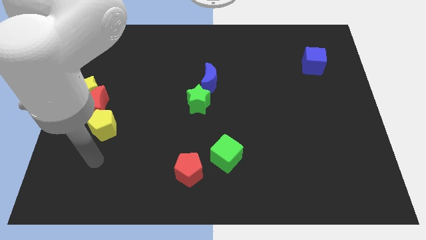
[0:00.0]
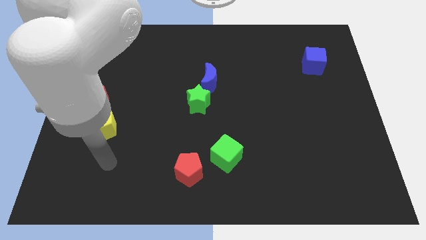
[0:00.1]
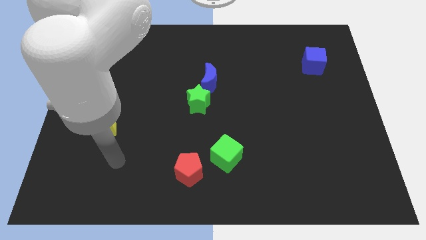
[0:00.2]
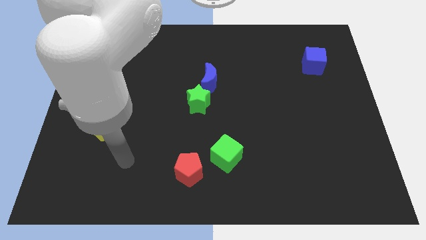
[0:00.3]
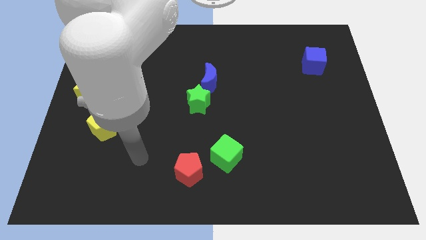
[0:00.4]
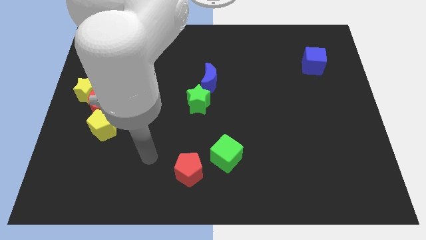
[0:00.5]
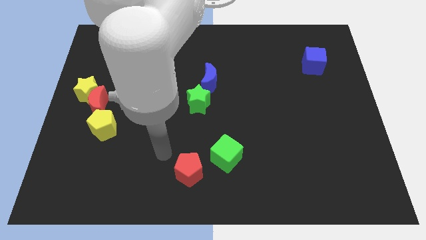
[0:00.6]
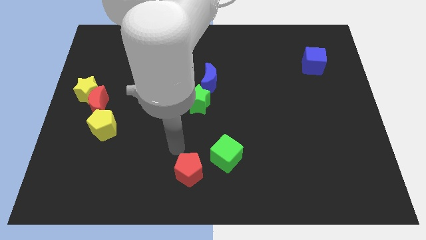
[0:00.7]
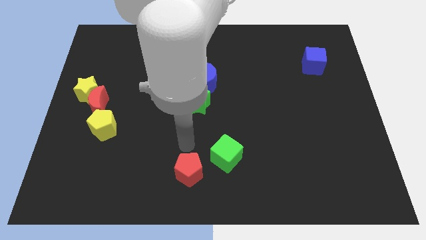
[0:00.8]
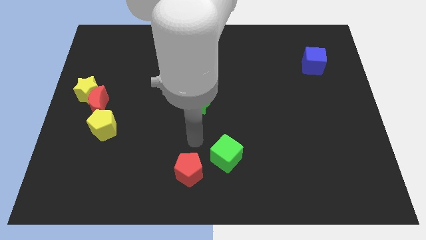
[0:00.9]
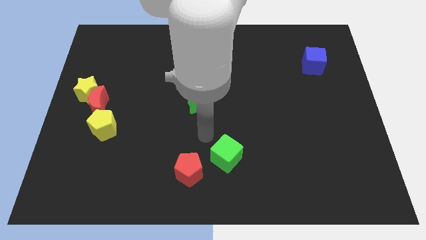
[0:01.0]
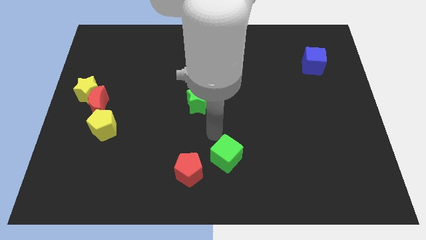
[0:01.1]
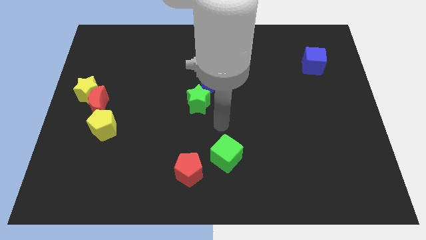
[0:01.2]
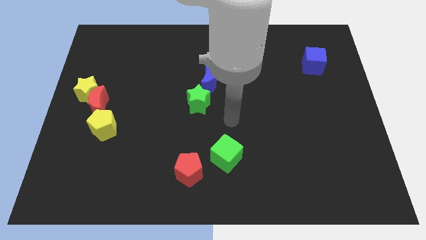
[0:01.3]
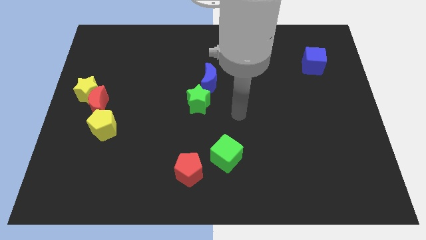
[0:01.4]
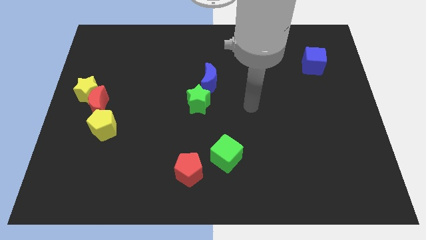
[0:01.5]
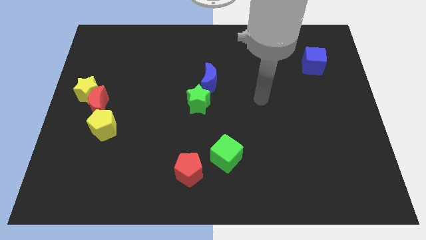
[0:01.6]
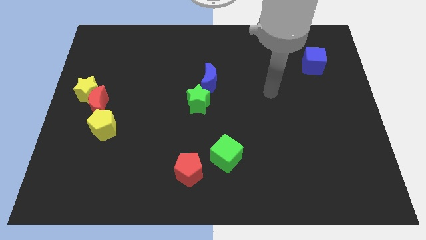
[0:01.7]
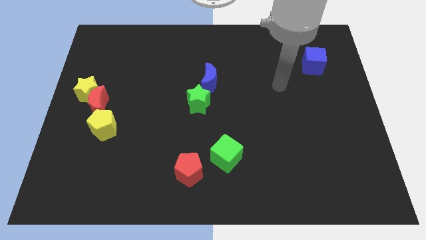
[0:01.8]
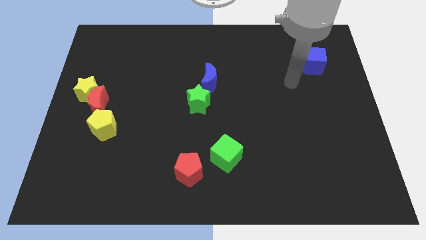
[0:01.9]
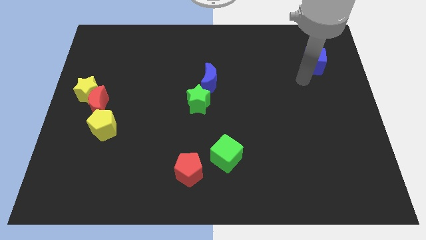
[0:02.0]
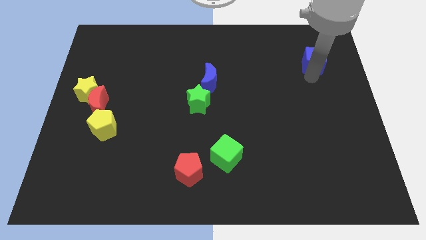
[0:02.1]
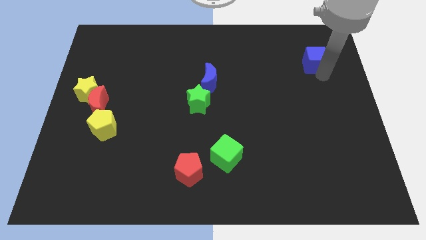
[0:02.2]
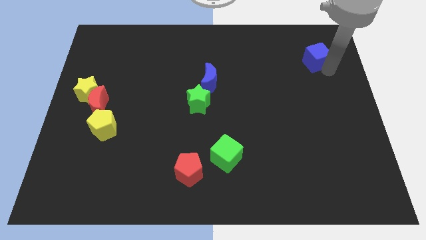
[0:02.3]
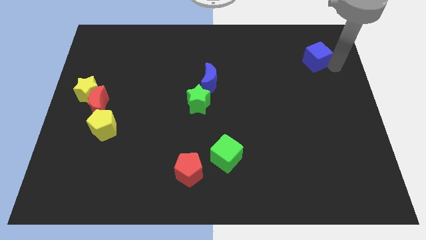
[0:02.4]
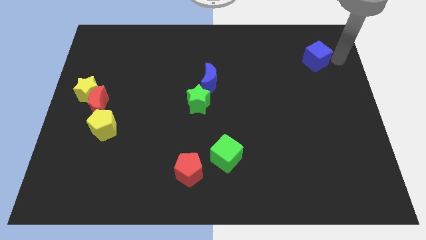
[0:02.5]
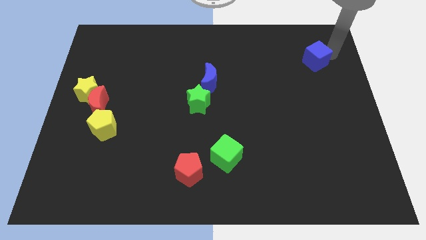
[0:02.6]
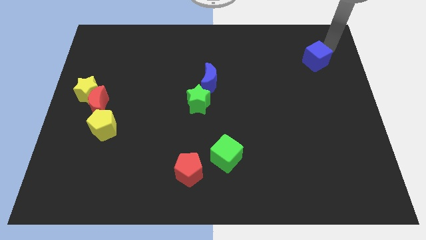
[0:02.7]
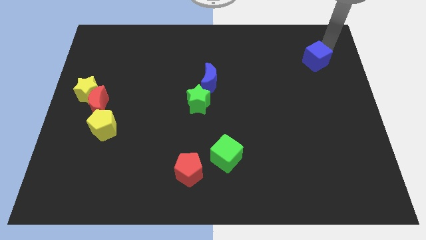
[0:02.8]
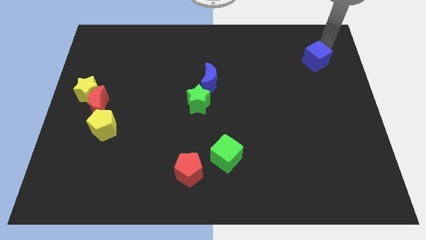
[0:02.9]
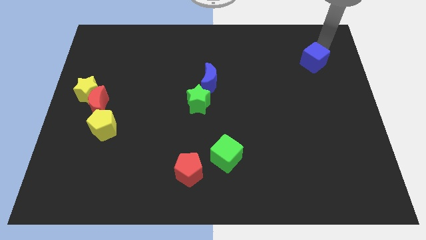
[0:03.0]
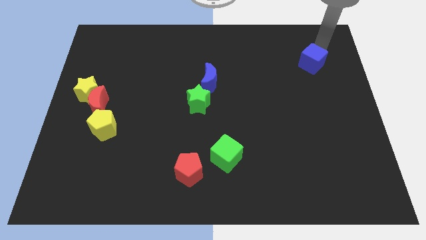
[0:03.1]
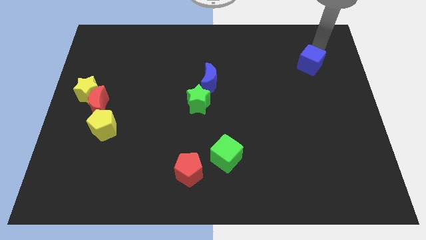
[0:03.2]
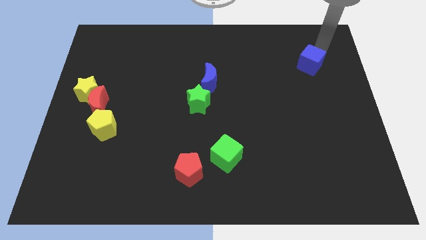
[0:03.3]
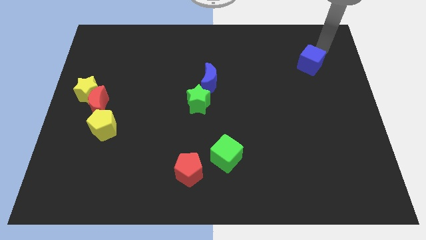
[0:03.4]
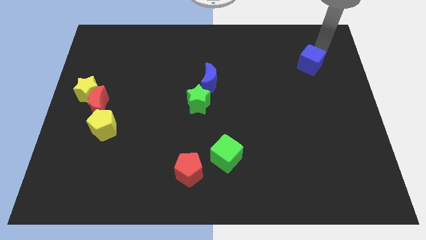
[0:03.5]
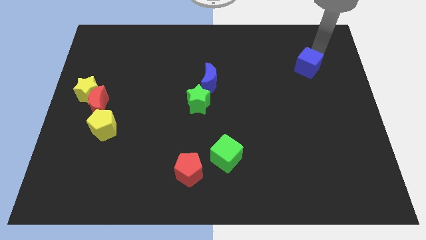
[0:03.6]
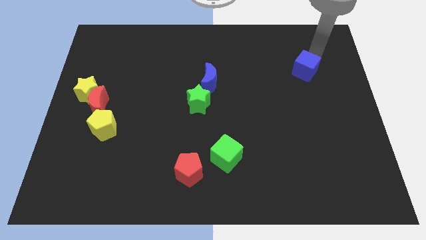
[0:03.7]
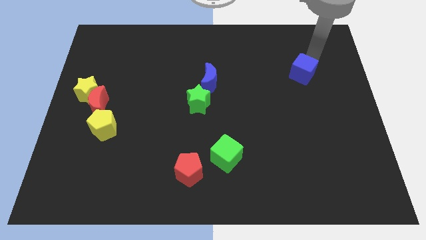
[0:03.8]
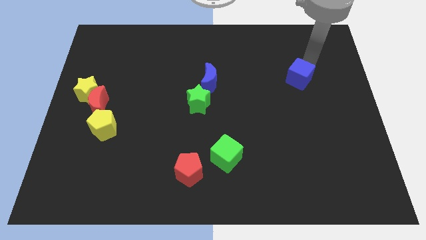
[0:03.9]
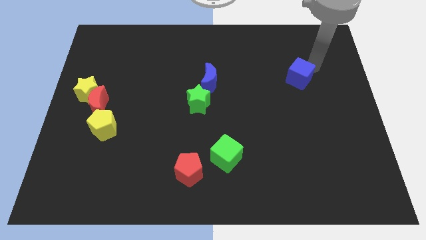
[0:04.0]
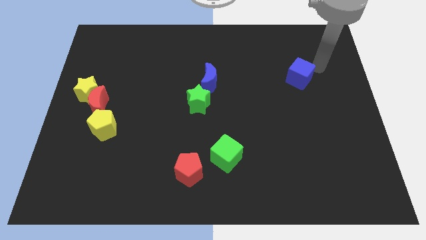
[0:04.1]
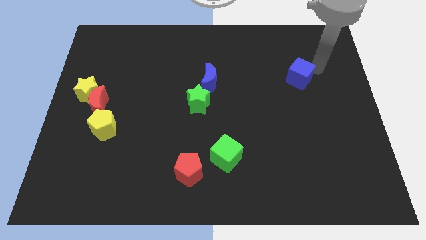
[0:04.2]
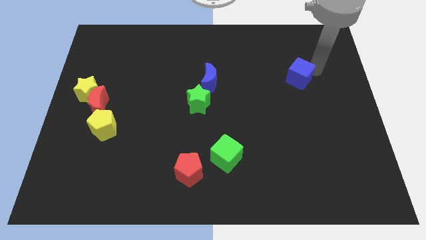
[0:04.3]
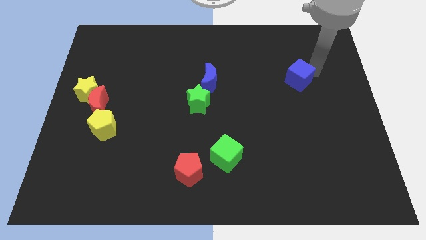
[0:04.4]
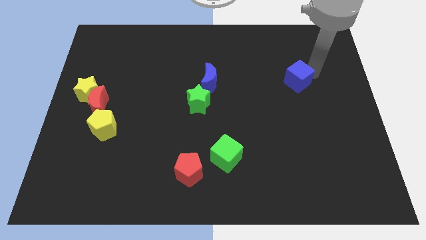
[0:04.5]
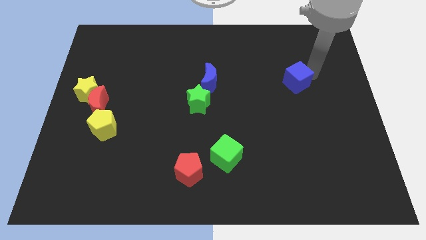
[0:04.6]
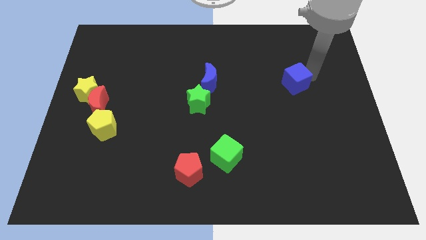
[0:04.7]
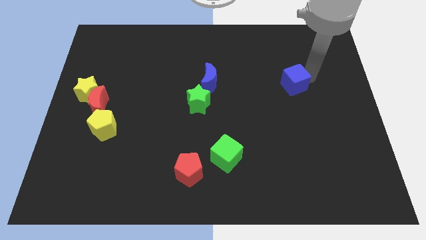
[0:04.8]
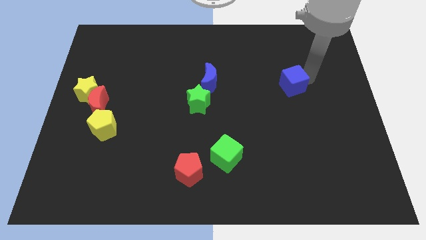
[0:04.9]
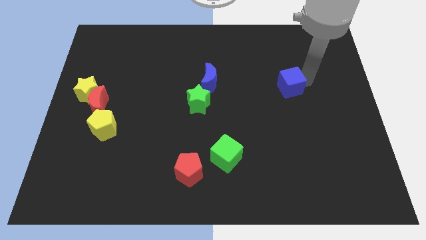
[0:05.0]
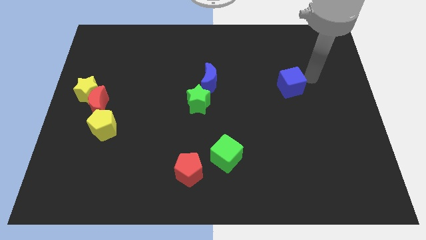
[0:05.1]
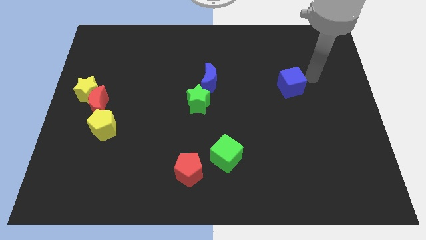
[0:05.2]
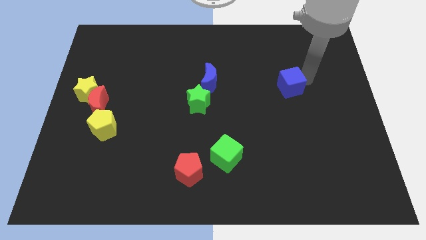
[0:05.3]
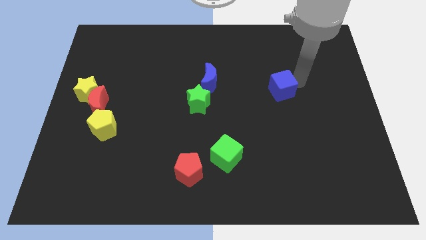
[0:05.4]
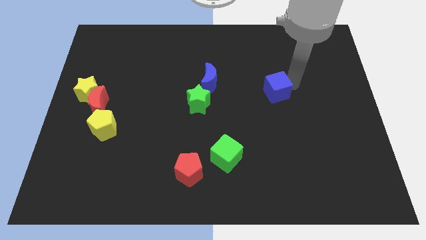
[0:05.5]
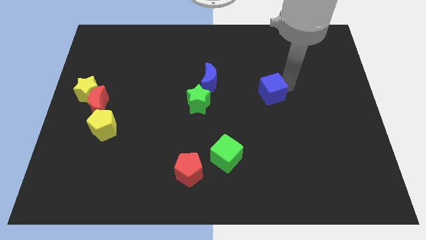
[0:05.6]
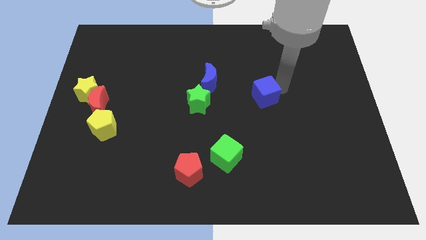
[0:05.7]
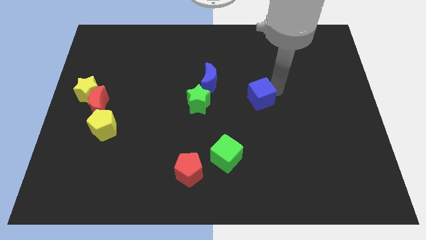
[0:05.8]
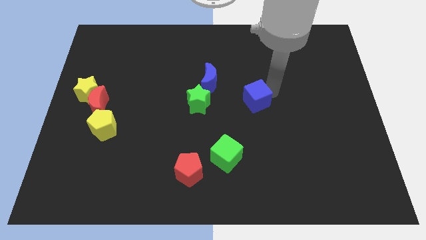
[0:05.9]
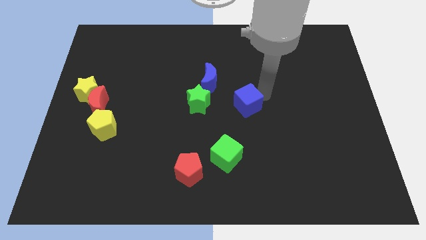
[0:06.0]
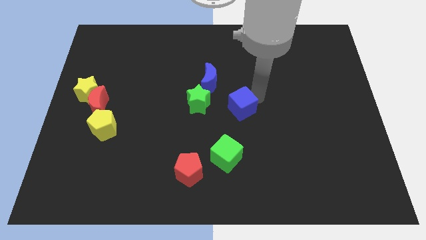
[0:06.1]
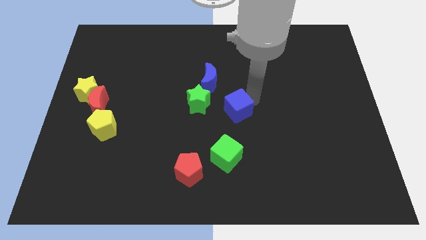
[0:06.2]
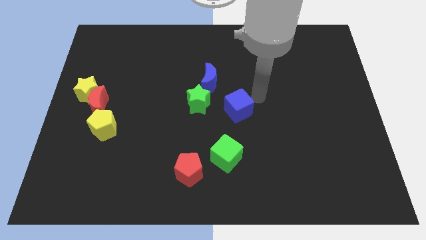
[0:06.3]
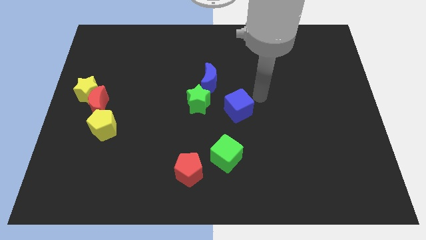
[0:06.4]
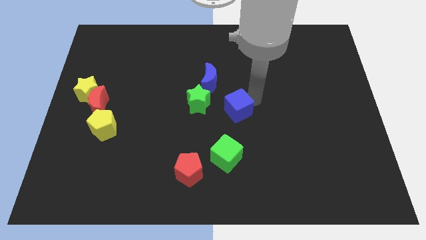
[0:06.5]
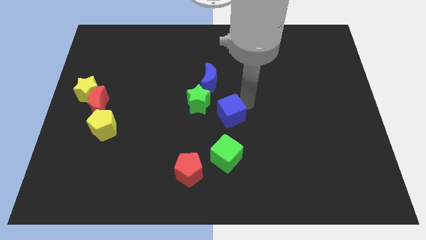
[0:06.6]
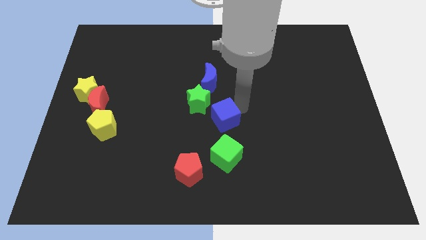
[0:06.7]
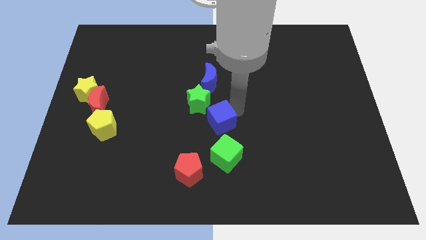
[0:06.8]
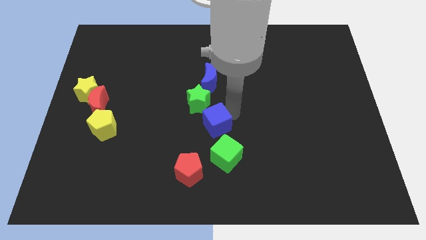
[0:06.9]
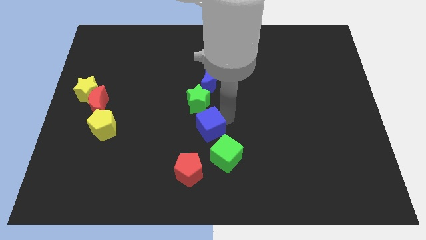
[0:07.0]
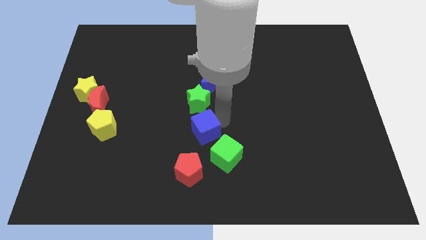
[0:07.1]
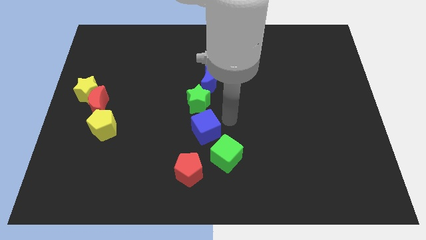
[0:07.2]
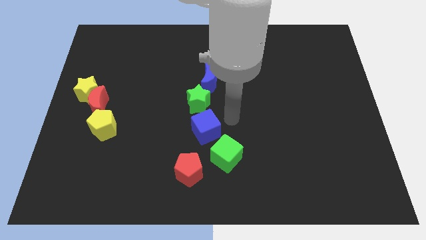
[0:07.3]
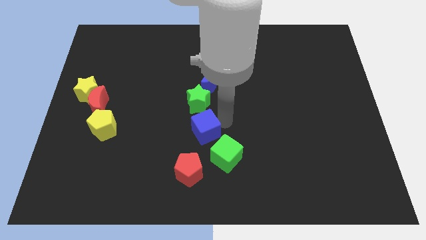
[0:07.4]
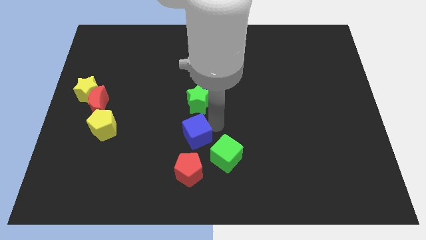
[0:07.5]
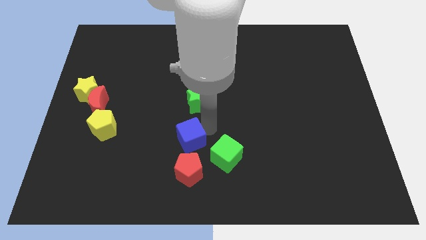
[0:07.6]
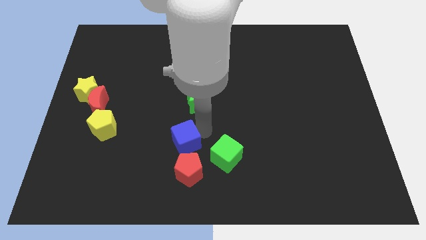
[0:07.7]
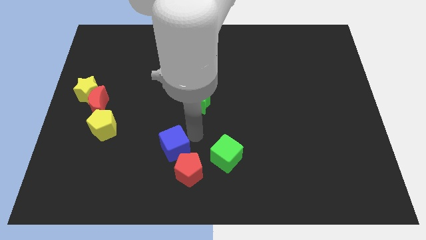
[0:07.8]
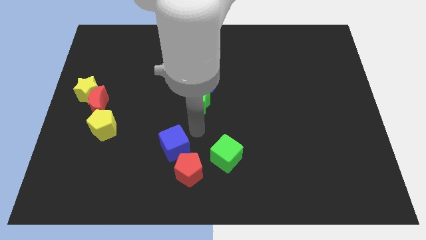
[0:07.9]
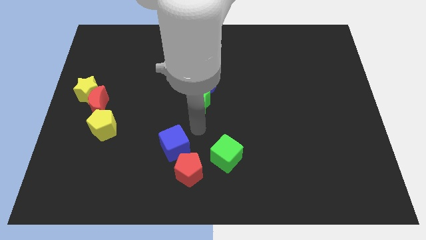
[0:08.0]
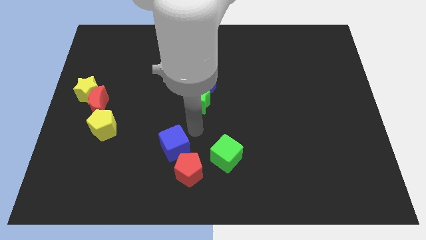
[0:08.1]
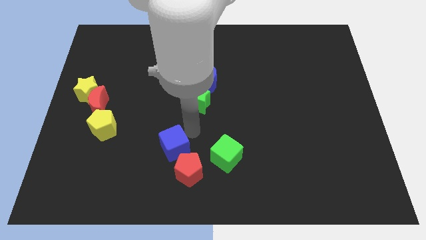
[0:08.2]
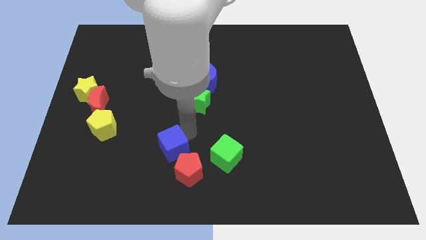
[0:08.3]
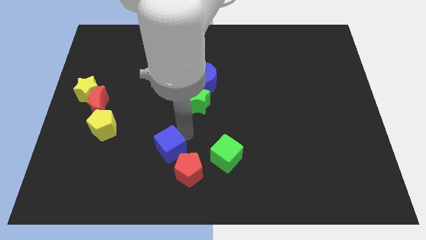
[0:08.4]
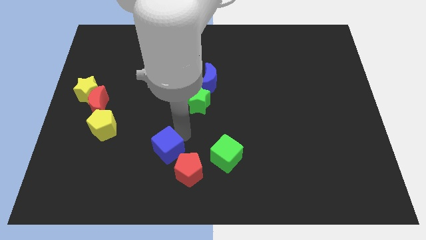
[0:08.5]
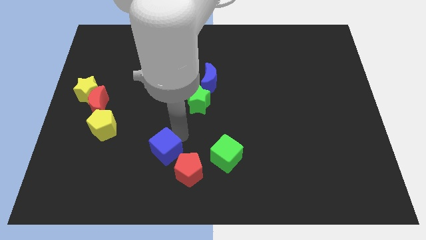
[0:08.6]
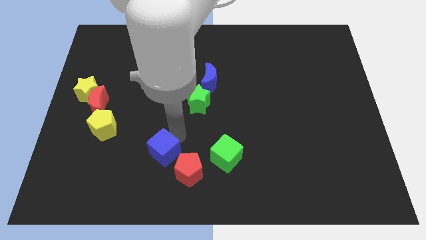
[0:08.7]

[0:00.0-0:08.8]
move the blue cube just left of the red pentagon
